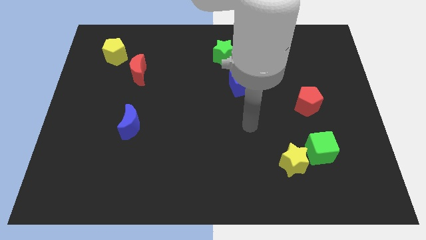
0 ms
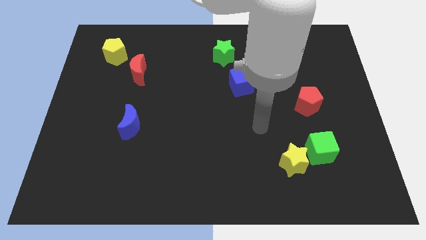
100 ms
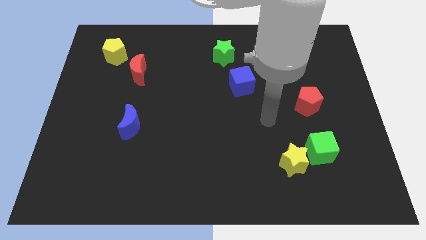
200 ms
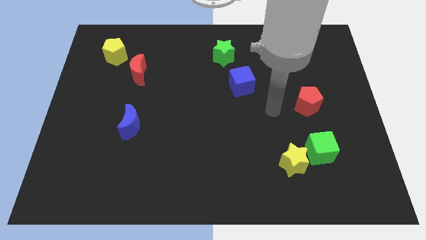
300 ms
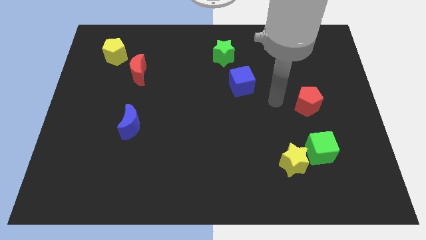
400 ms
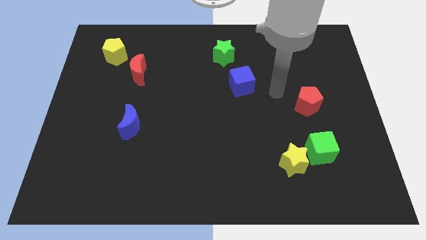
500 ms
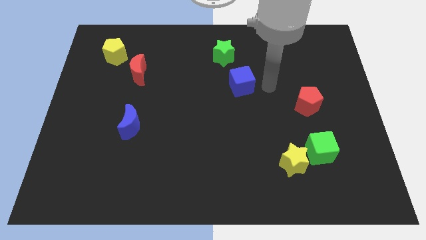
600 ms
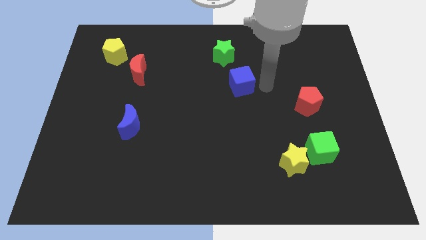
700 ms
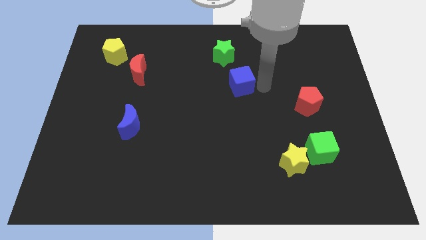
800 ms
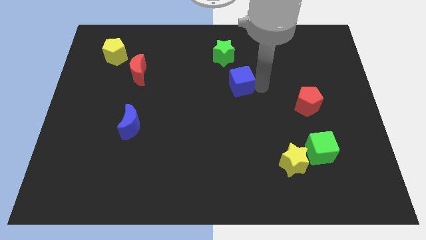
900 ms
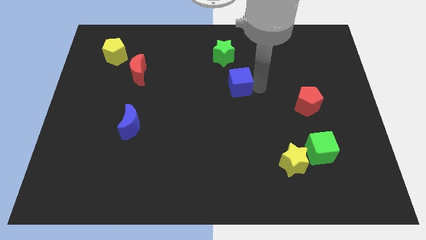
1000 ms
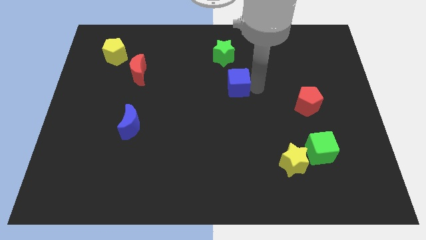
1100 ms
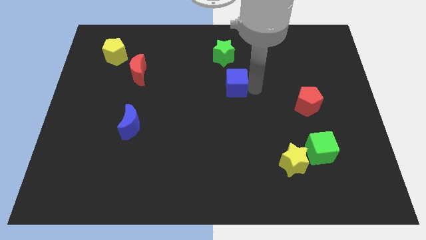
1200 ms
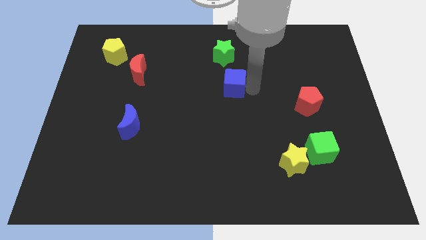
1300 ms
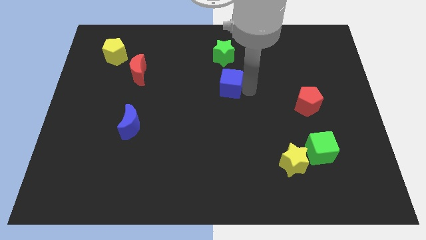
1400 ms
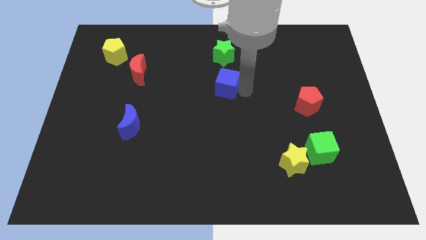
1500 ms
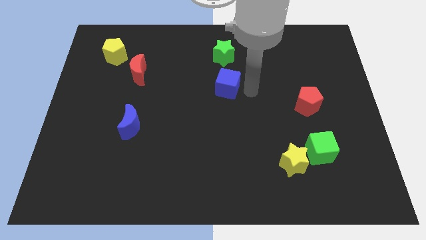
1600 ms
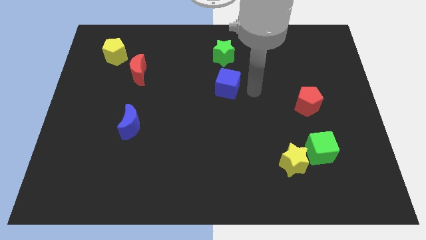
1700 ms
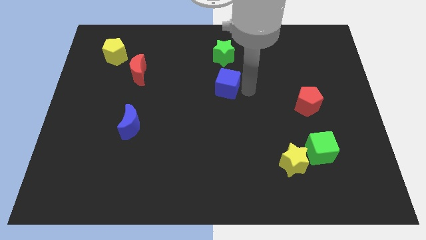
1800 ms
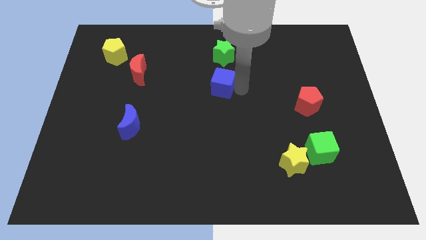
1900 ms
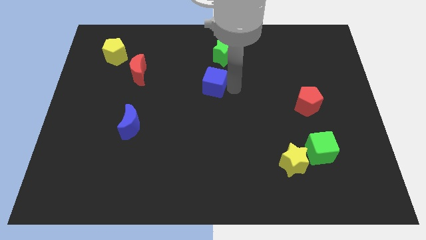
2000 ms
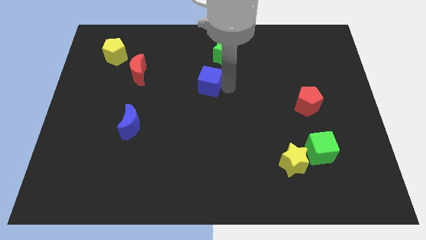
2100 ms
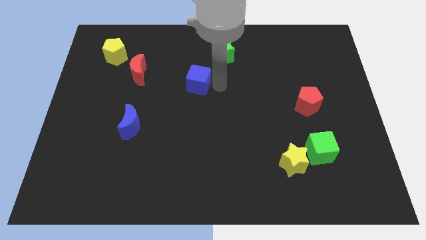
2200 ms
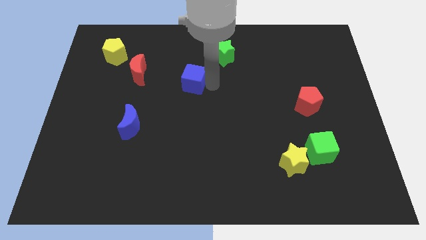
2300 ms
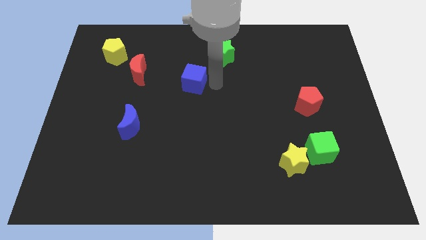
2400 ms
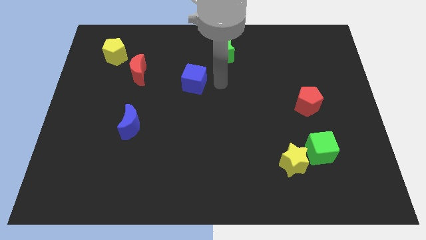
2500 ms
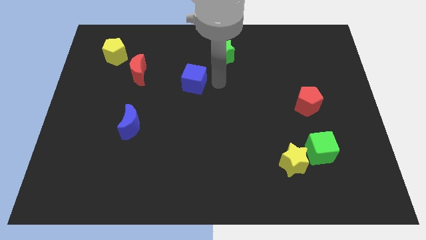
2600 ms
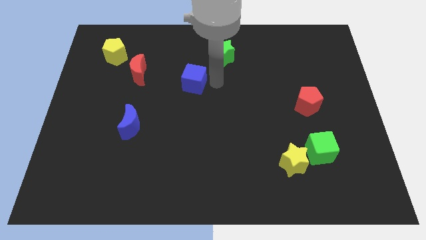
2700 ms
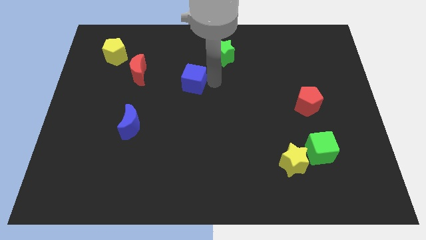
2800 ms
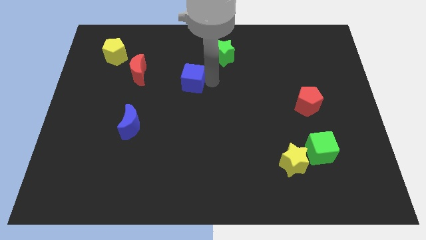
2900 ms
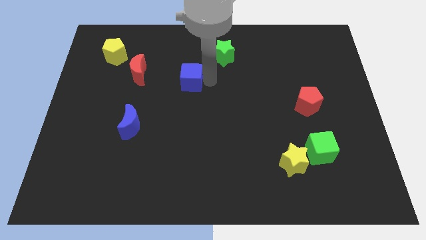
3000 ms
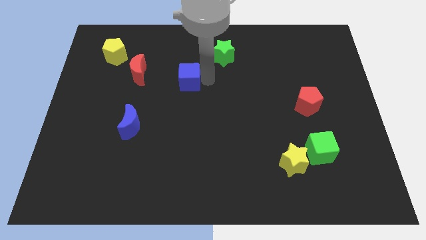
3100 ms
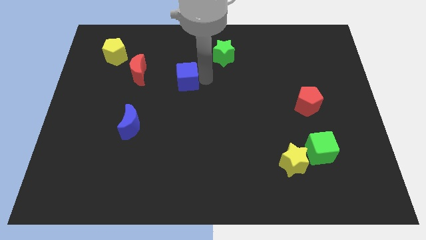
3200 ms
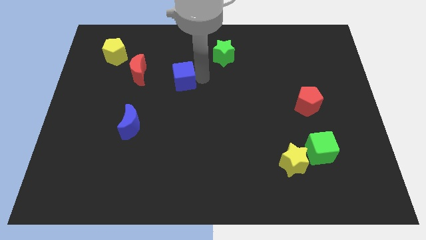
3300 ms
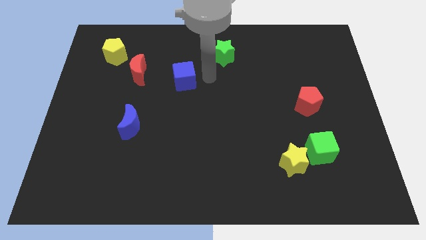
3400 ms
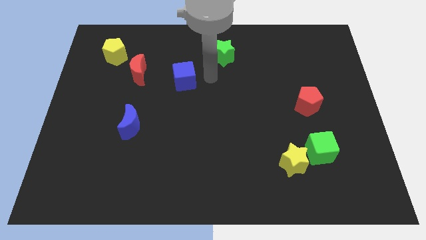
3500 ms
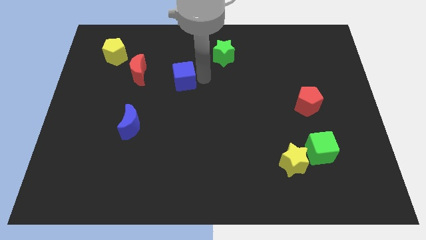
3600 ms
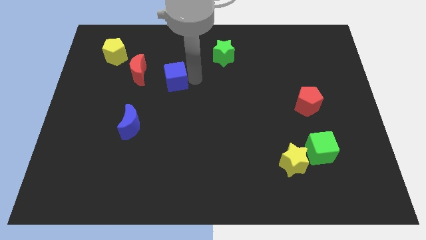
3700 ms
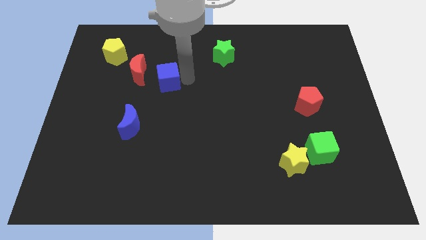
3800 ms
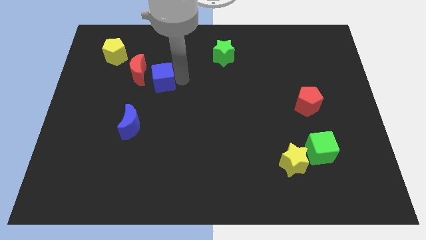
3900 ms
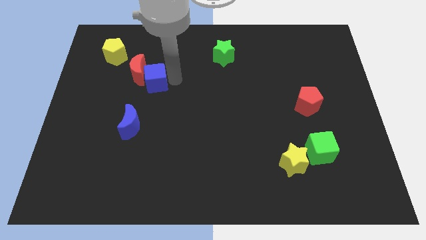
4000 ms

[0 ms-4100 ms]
slide the blue cube left

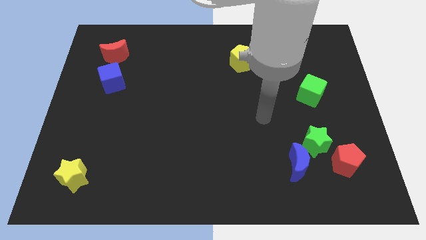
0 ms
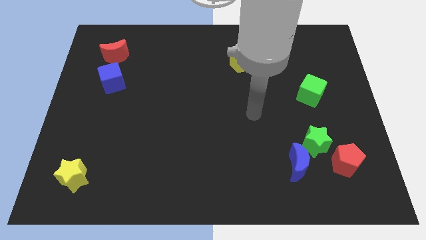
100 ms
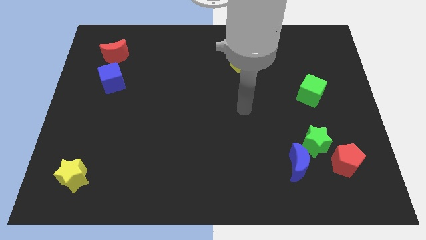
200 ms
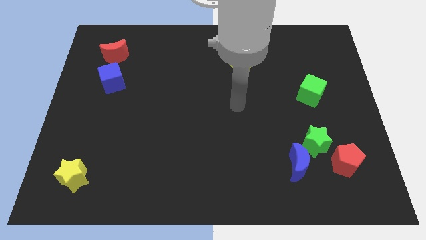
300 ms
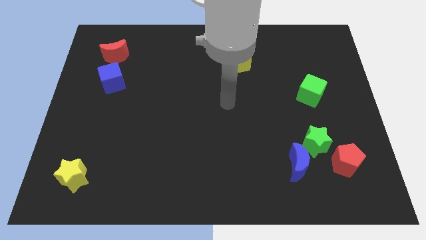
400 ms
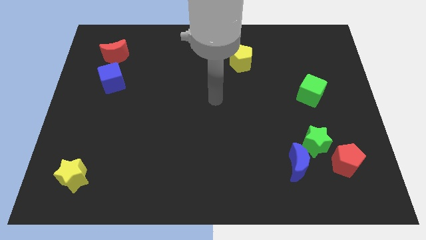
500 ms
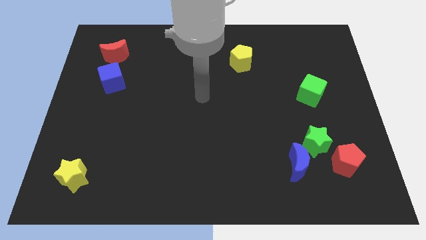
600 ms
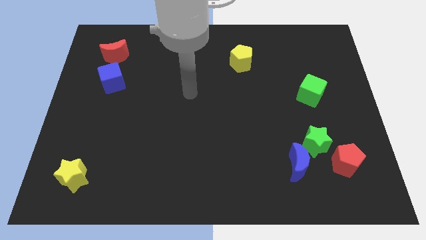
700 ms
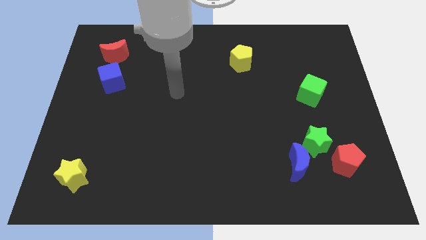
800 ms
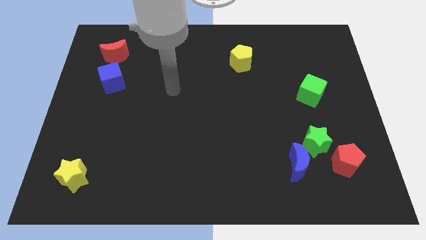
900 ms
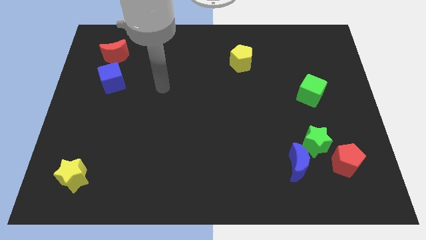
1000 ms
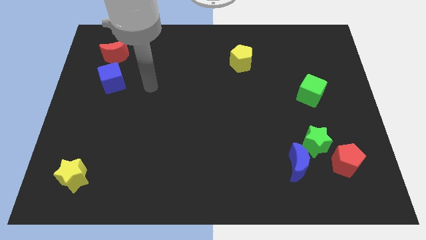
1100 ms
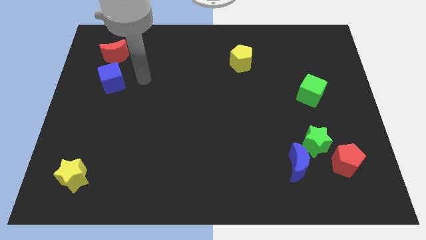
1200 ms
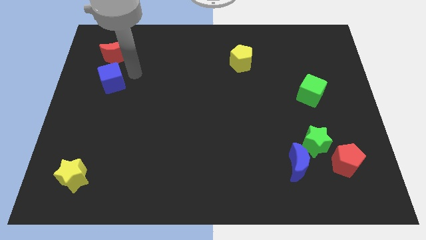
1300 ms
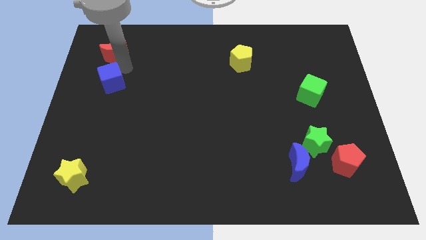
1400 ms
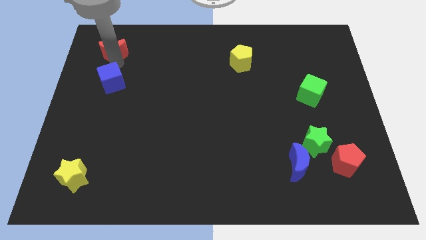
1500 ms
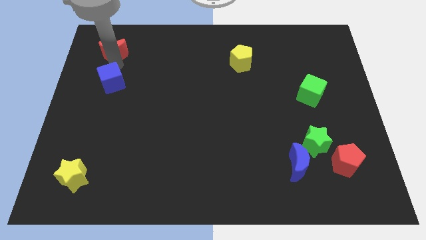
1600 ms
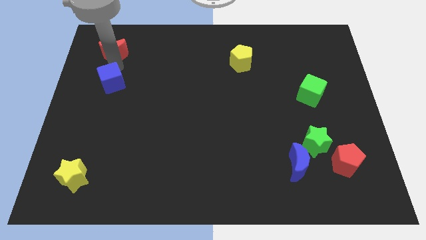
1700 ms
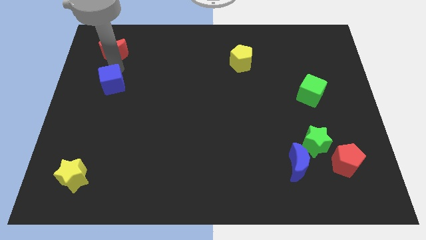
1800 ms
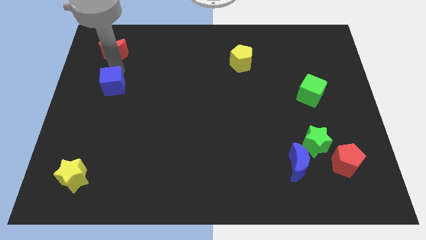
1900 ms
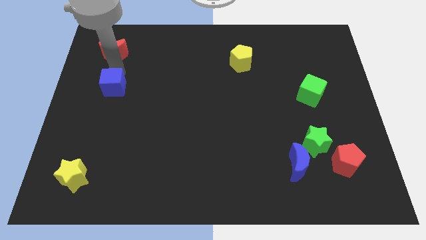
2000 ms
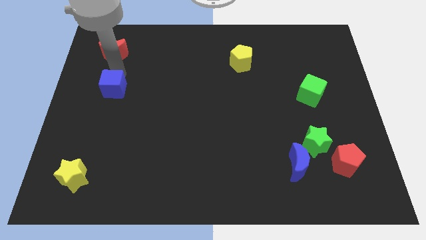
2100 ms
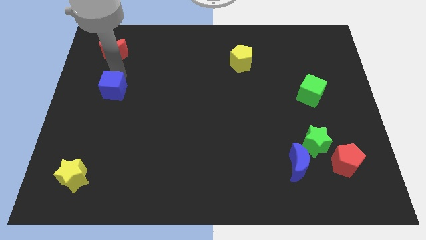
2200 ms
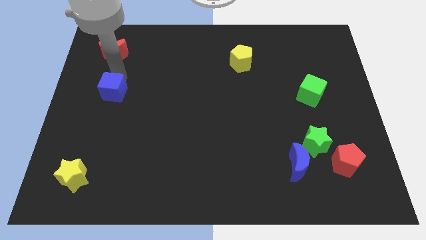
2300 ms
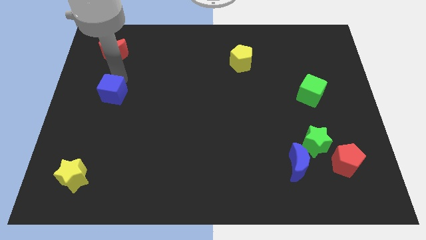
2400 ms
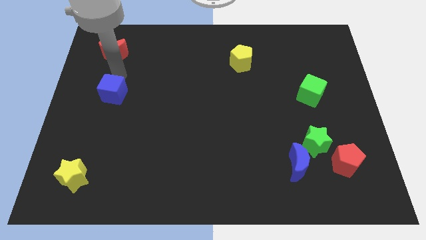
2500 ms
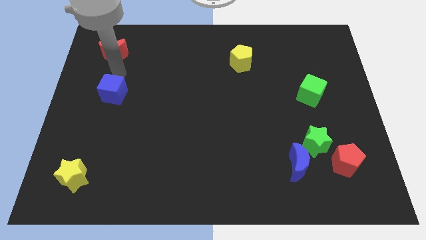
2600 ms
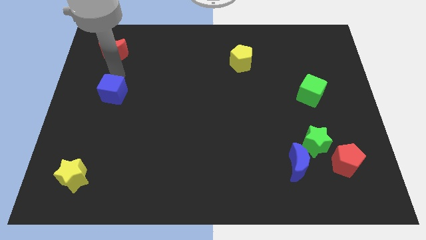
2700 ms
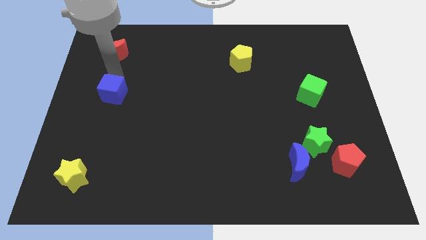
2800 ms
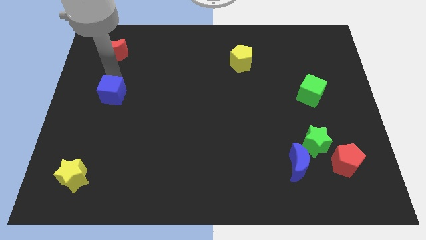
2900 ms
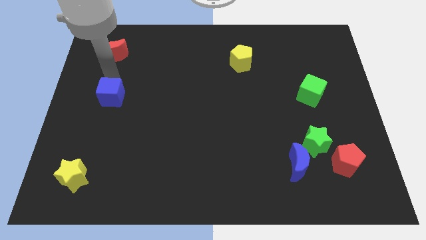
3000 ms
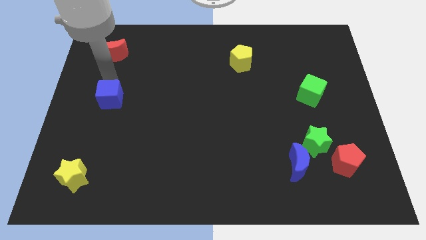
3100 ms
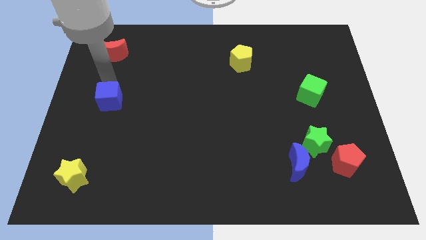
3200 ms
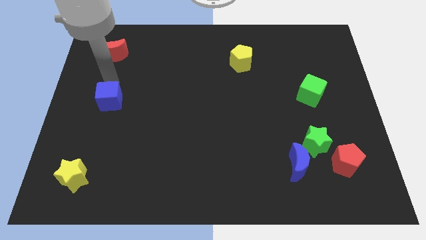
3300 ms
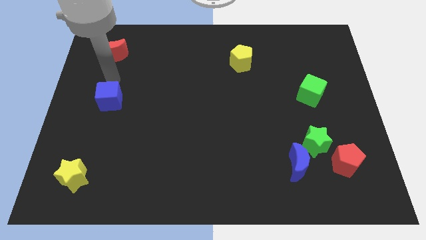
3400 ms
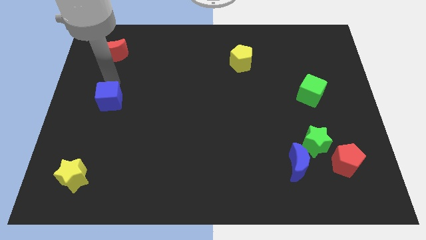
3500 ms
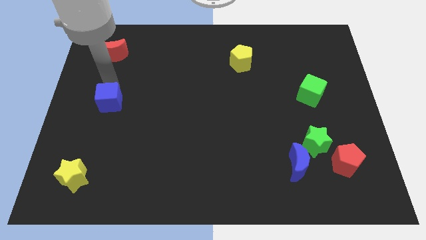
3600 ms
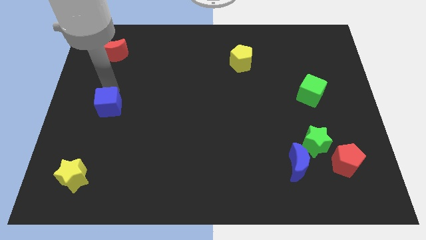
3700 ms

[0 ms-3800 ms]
push the blue cube downwards a bit

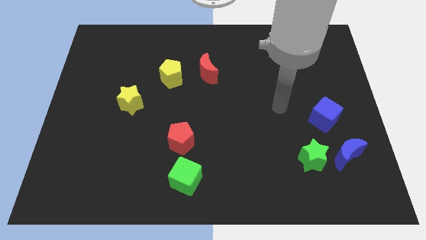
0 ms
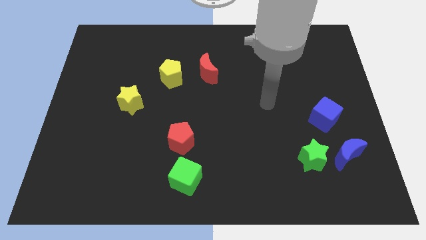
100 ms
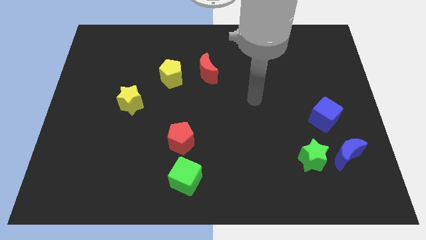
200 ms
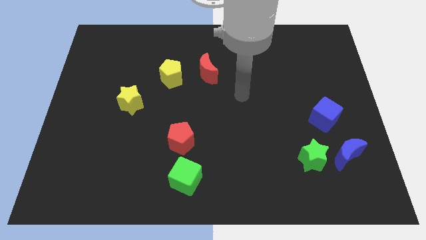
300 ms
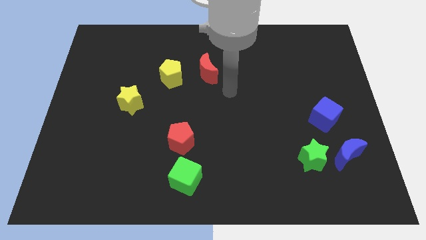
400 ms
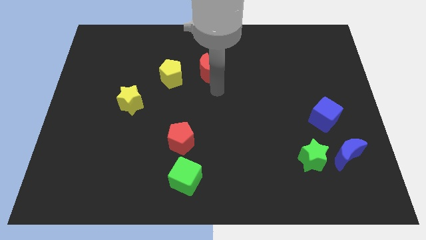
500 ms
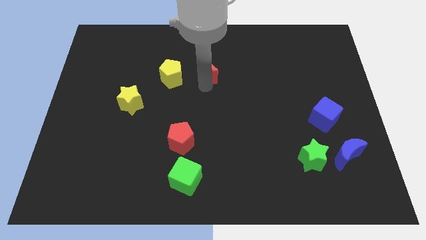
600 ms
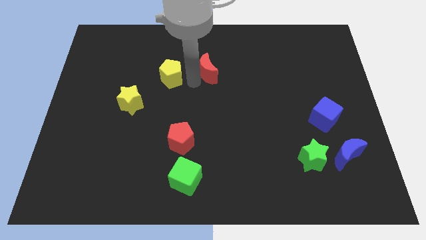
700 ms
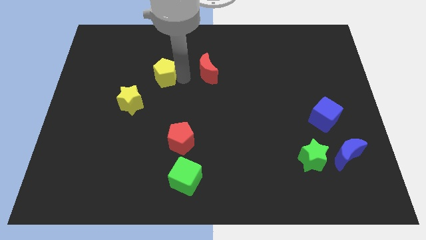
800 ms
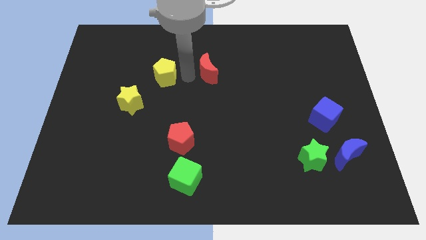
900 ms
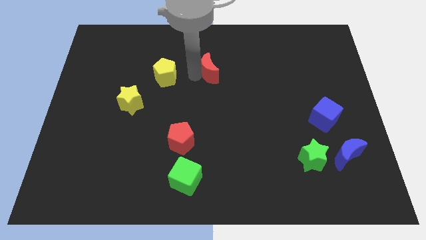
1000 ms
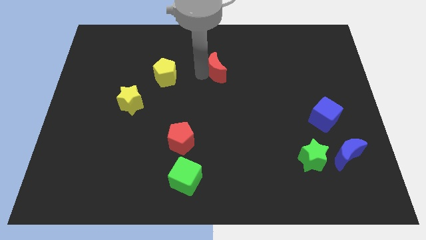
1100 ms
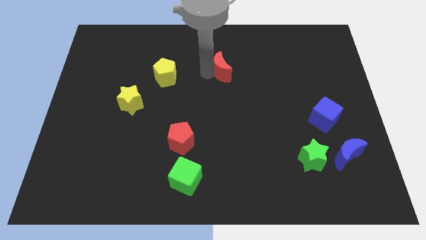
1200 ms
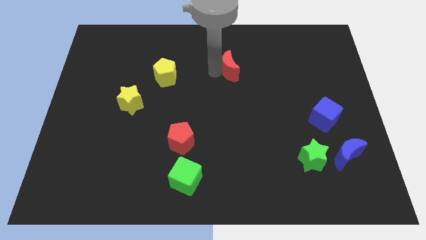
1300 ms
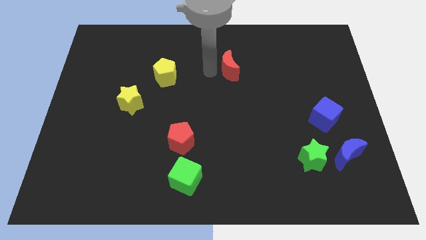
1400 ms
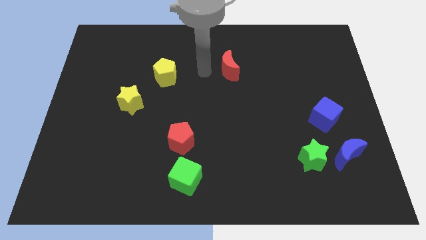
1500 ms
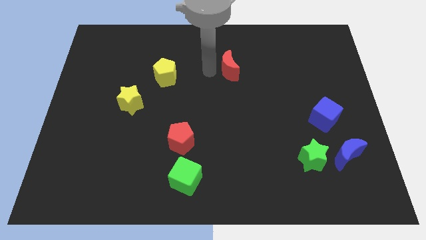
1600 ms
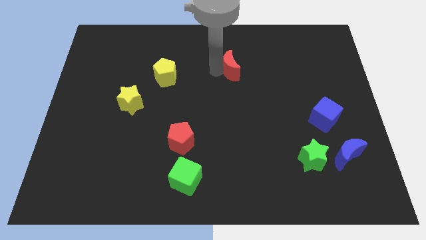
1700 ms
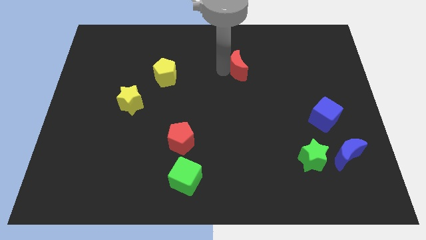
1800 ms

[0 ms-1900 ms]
slightly push the red moon right
